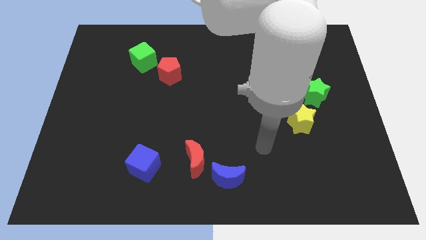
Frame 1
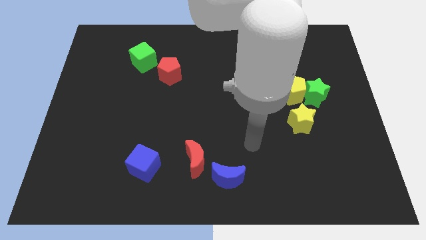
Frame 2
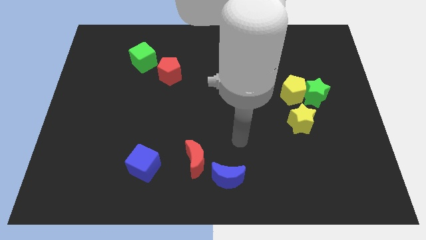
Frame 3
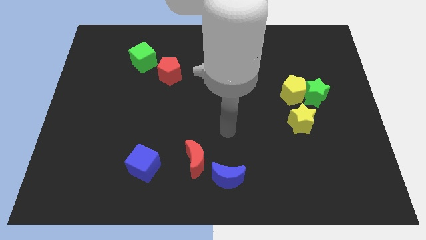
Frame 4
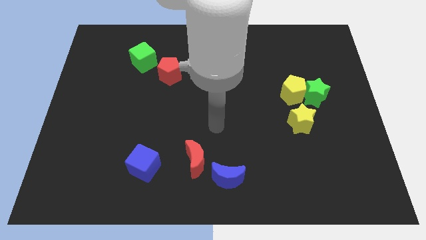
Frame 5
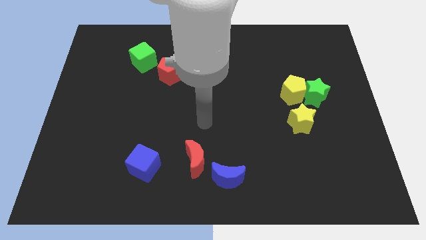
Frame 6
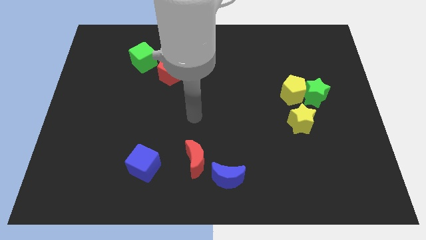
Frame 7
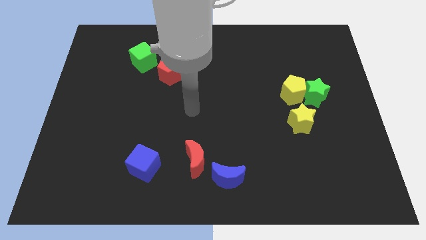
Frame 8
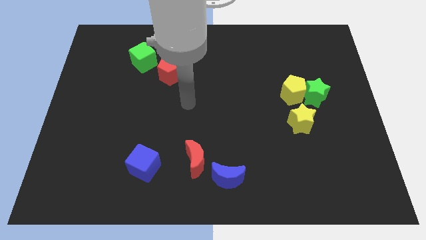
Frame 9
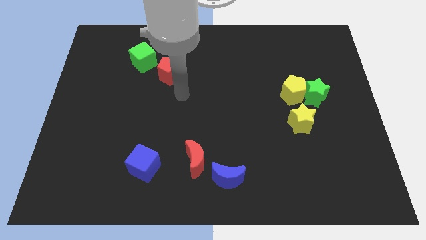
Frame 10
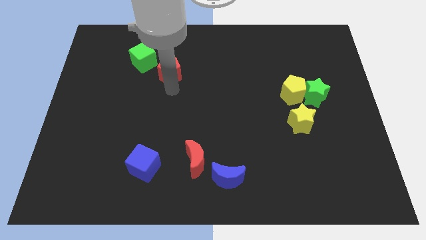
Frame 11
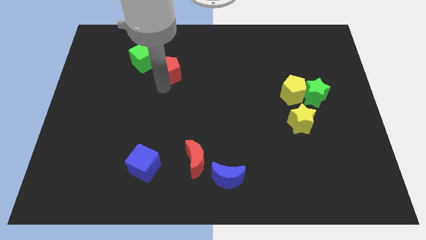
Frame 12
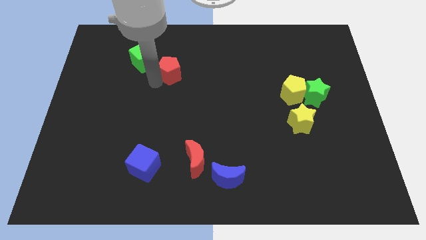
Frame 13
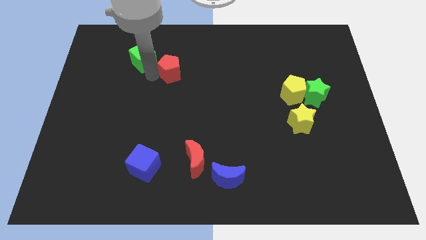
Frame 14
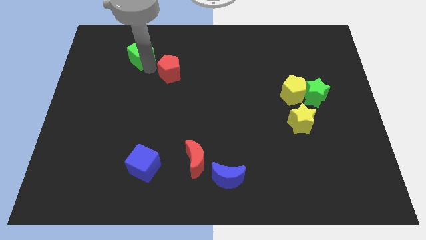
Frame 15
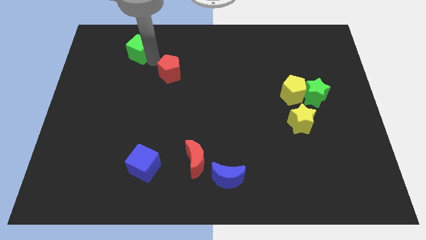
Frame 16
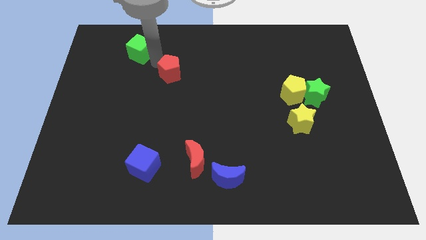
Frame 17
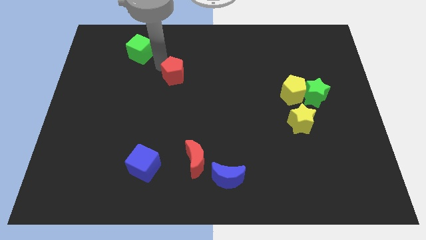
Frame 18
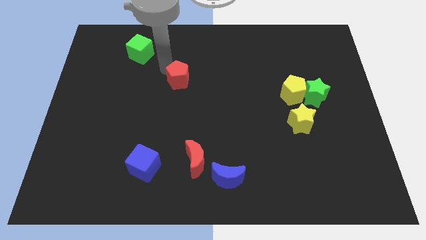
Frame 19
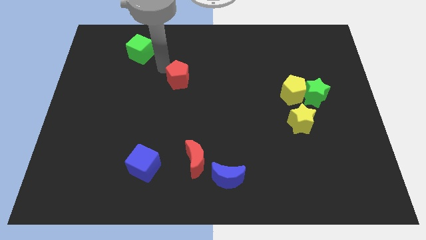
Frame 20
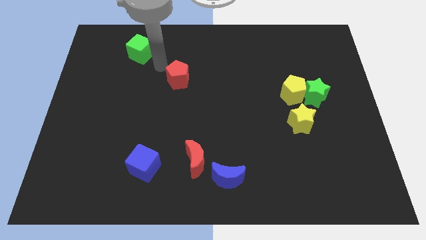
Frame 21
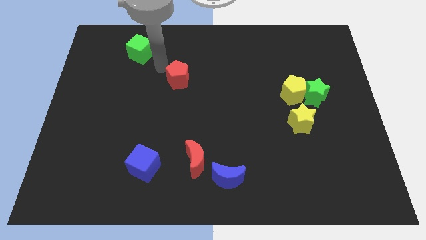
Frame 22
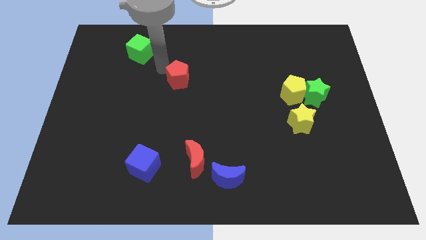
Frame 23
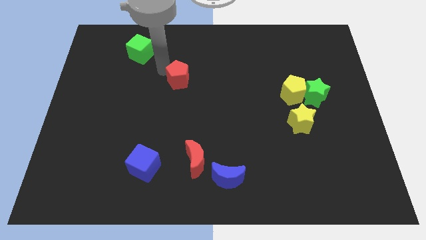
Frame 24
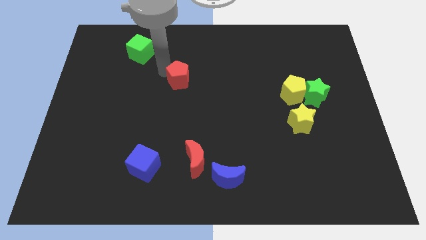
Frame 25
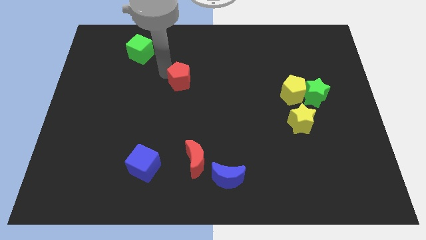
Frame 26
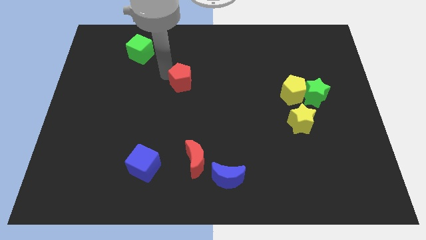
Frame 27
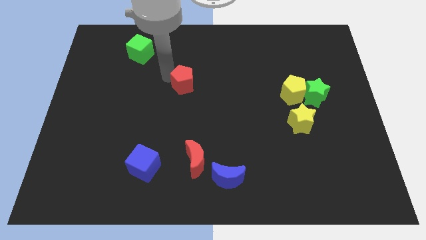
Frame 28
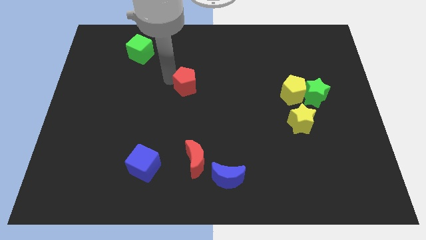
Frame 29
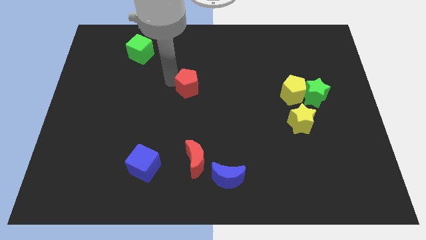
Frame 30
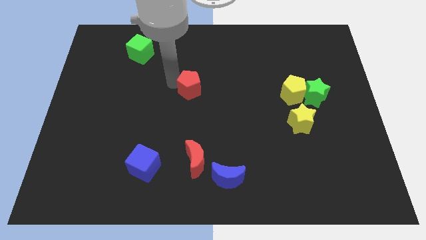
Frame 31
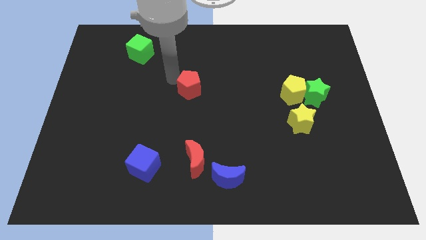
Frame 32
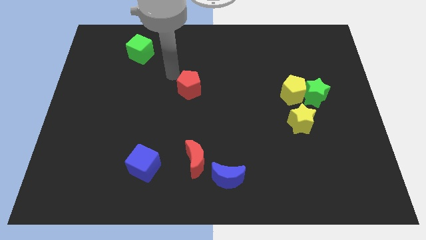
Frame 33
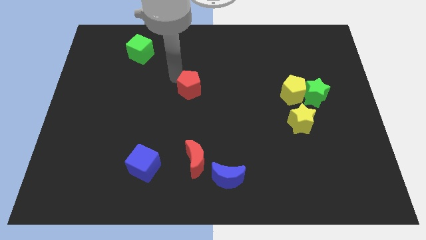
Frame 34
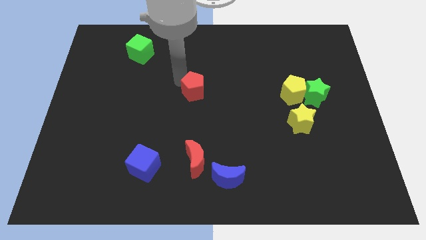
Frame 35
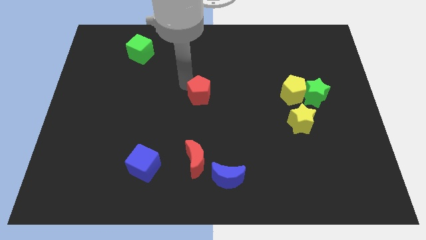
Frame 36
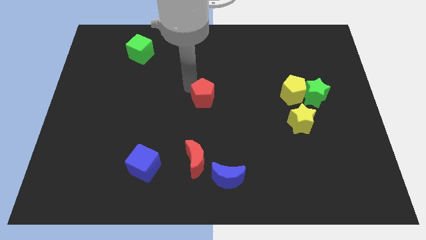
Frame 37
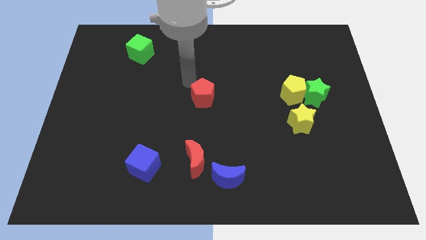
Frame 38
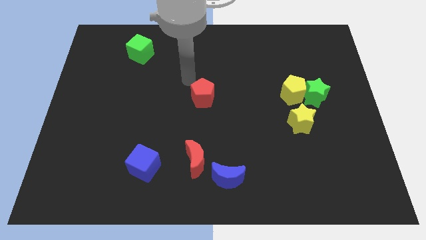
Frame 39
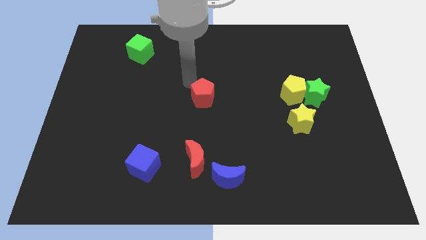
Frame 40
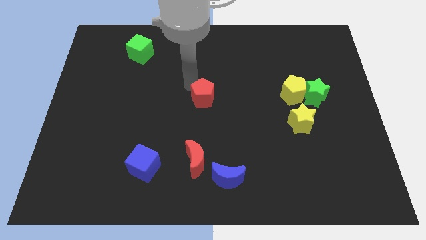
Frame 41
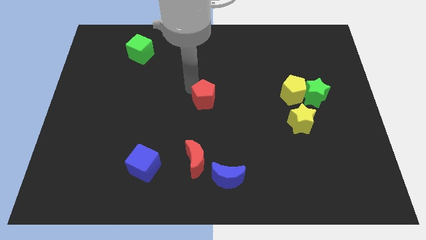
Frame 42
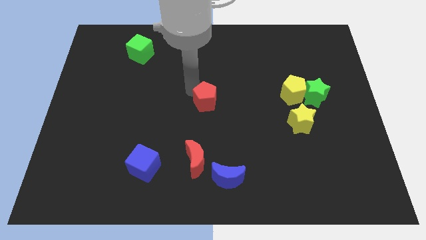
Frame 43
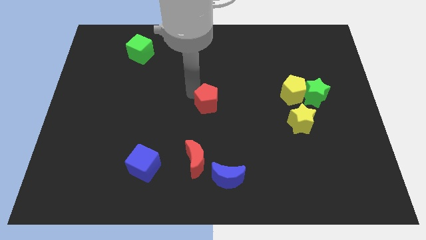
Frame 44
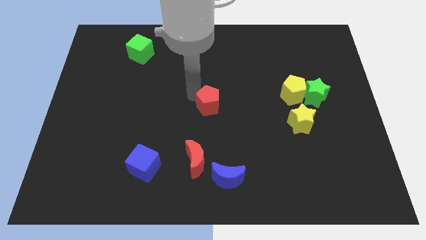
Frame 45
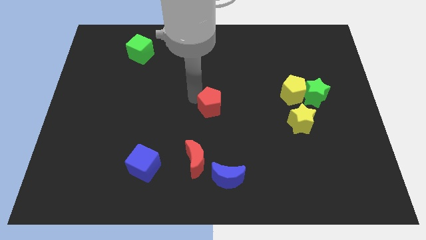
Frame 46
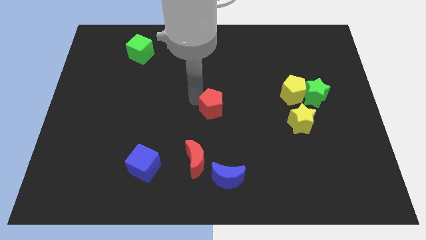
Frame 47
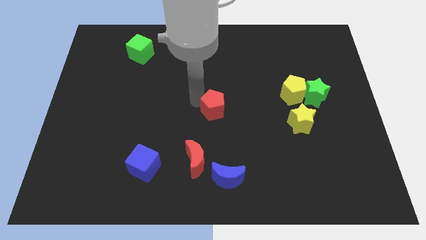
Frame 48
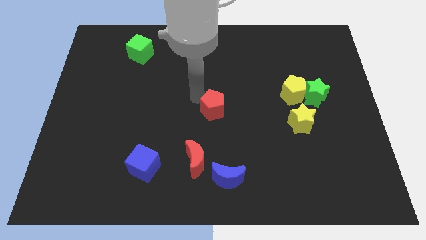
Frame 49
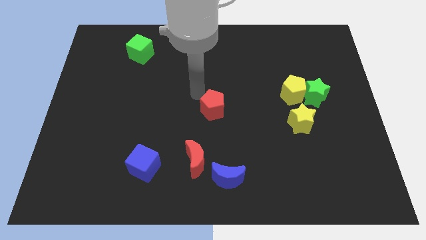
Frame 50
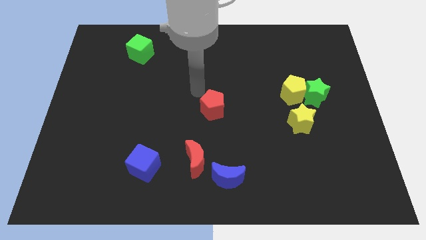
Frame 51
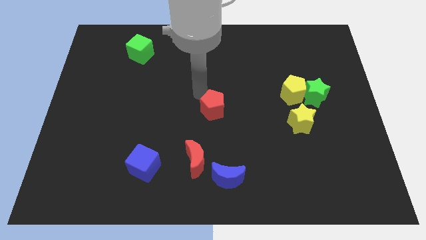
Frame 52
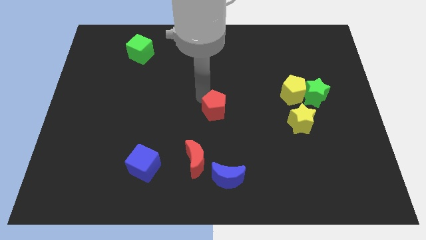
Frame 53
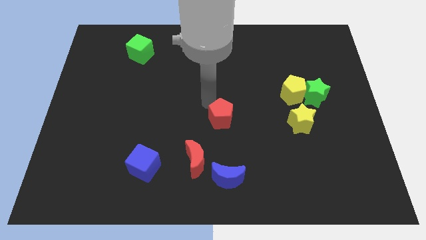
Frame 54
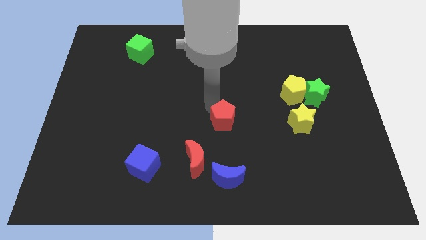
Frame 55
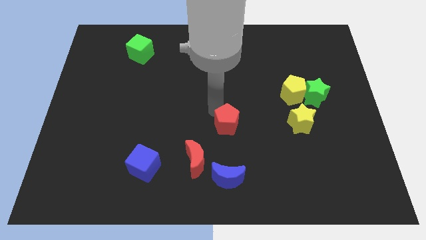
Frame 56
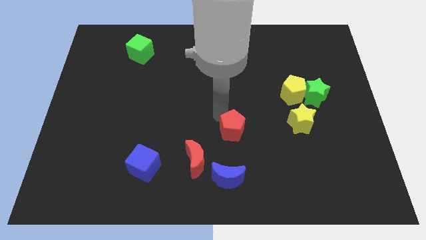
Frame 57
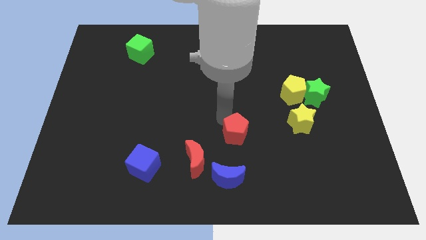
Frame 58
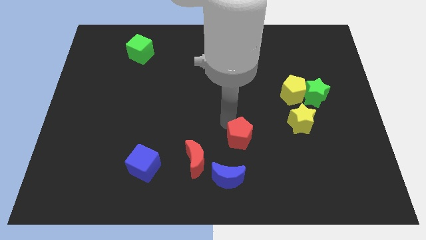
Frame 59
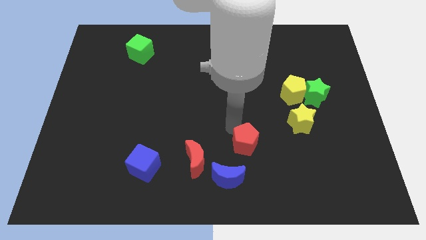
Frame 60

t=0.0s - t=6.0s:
put the red pentagon right of the red moon

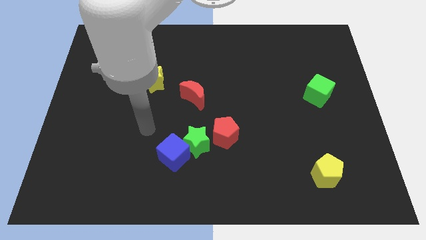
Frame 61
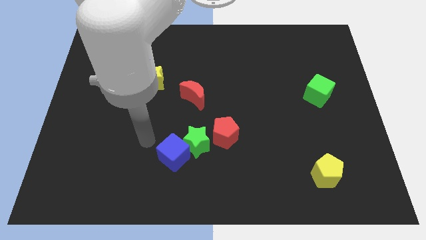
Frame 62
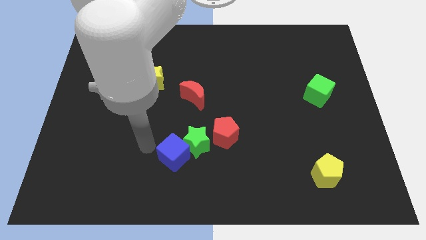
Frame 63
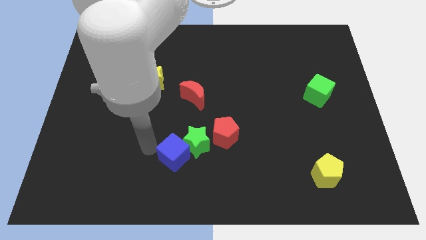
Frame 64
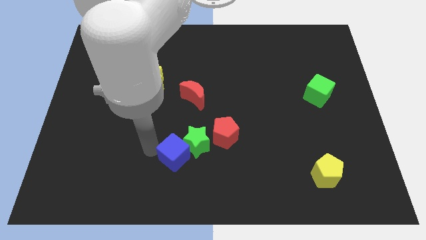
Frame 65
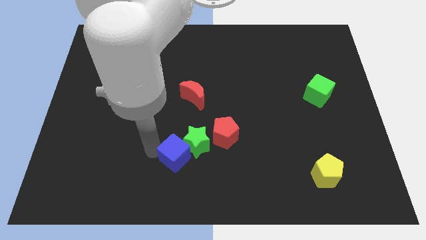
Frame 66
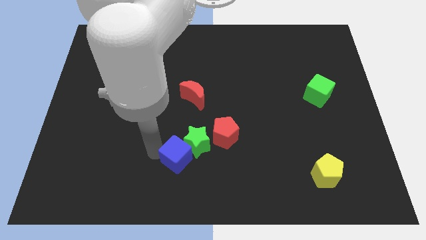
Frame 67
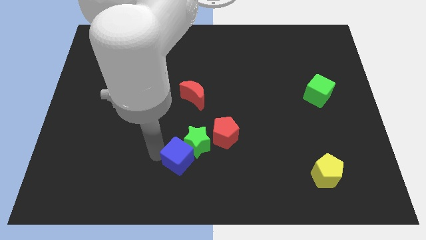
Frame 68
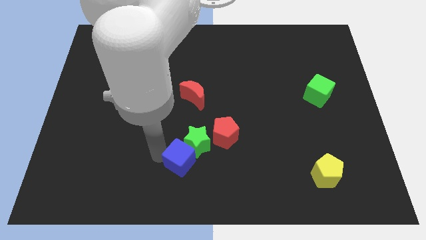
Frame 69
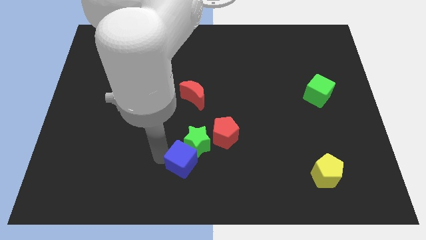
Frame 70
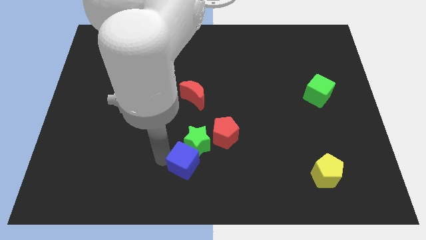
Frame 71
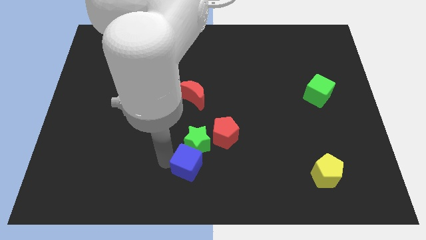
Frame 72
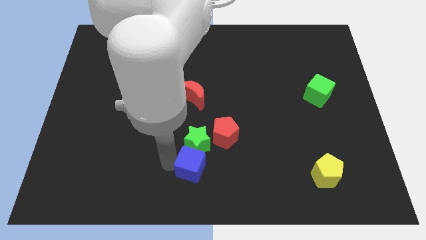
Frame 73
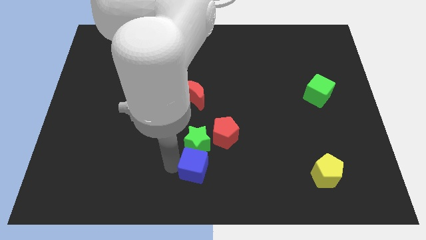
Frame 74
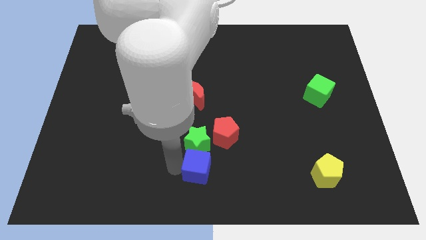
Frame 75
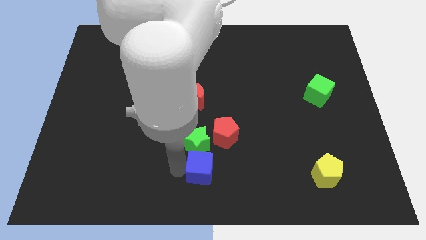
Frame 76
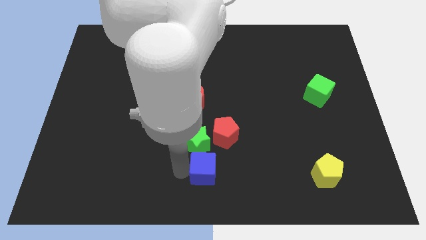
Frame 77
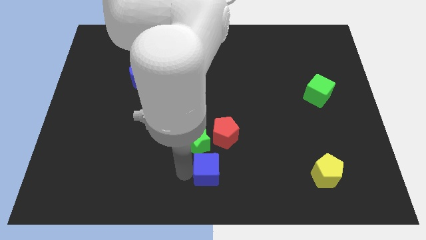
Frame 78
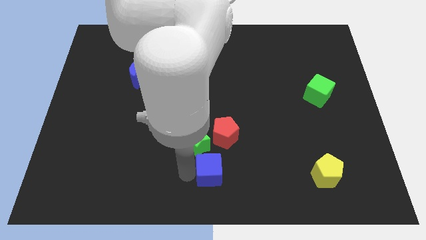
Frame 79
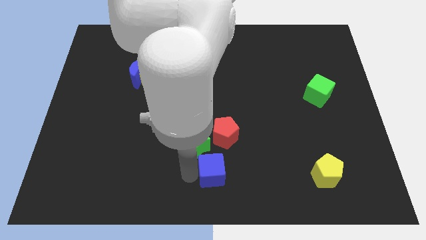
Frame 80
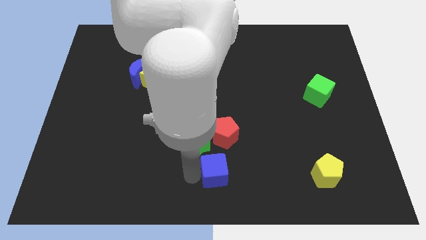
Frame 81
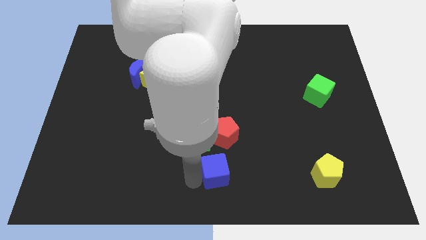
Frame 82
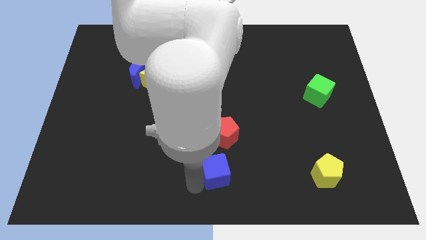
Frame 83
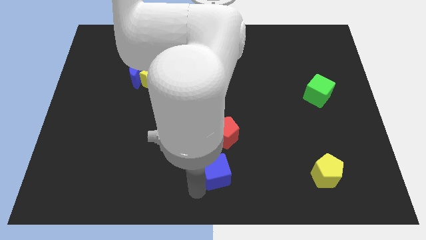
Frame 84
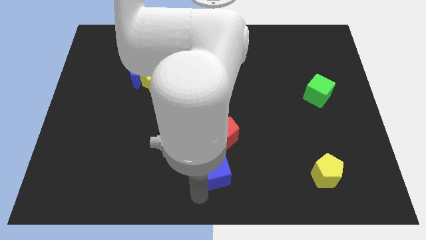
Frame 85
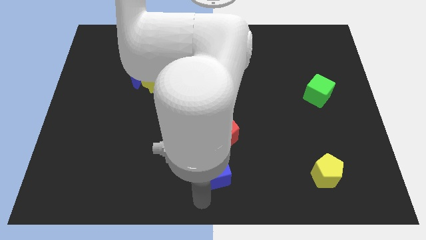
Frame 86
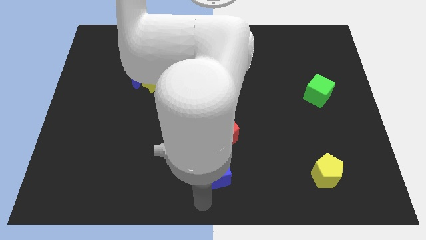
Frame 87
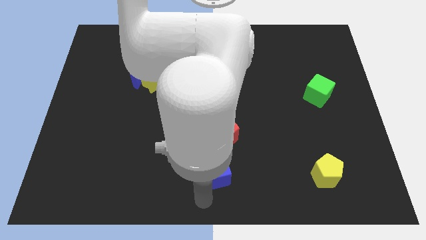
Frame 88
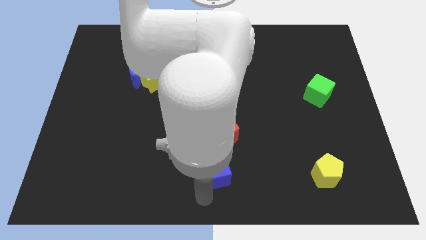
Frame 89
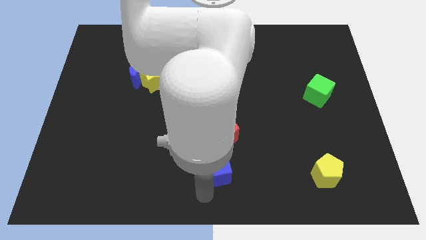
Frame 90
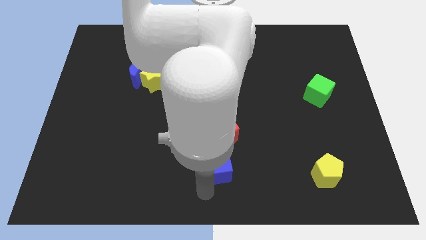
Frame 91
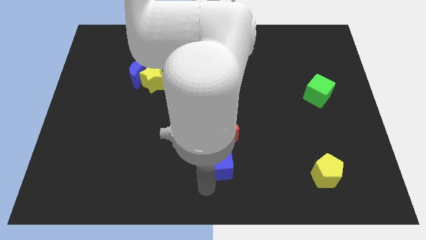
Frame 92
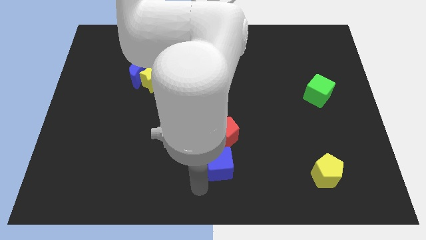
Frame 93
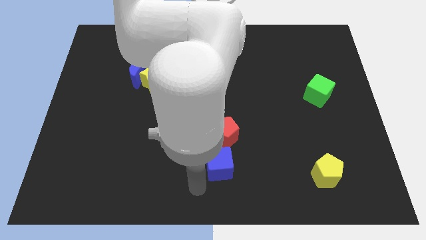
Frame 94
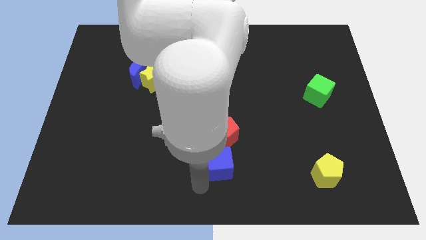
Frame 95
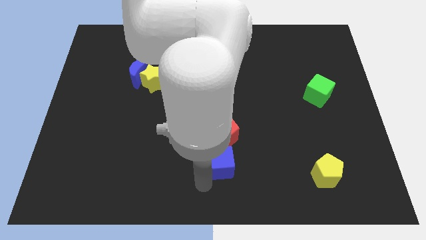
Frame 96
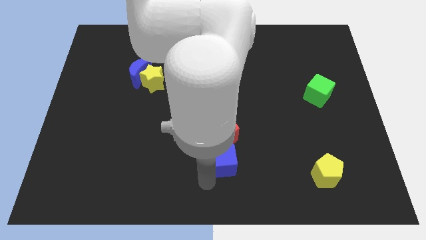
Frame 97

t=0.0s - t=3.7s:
slide the blue cube just right of the green star
